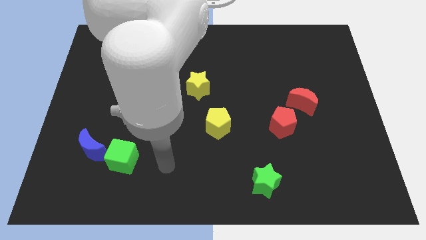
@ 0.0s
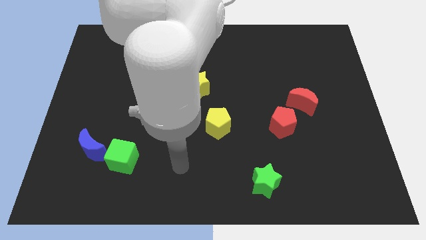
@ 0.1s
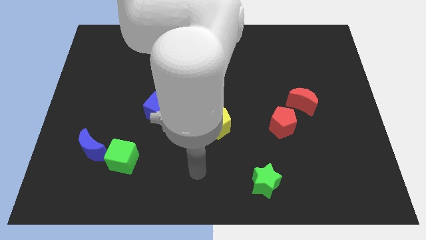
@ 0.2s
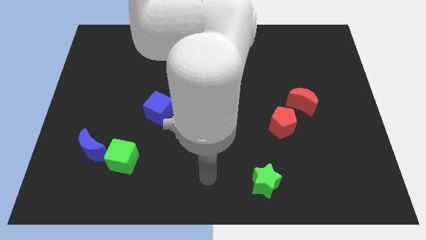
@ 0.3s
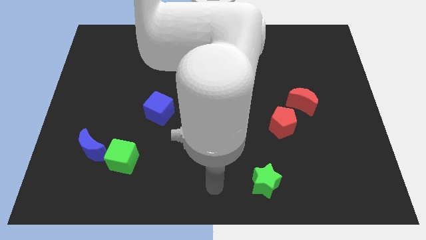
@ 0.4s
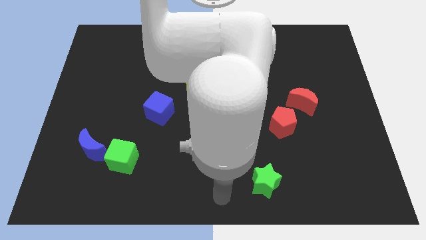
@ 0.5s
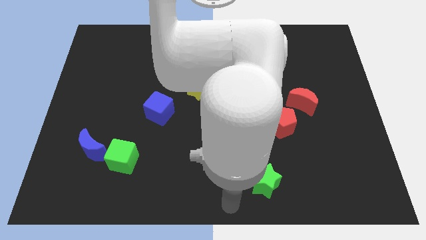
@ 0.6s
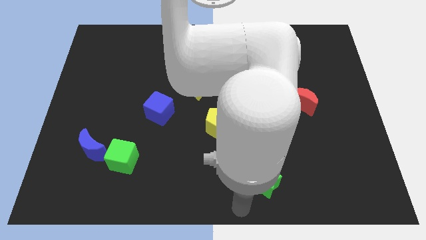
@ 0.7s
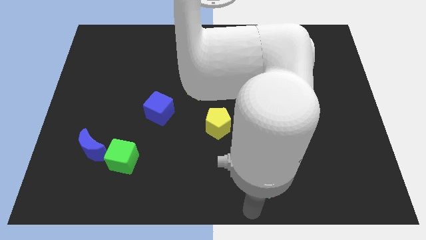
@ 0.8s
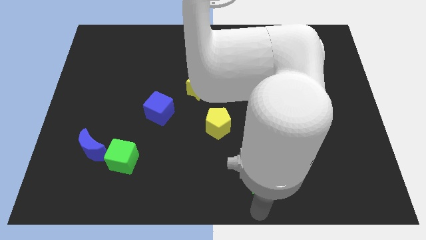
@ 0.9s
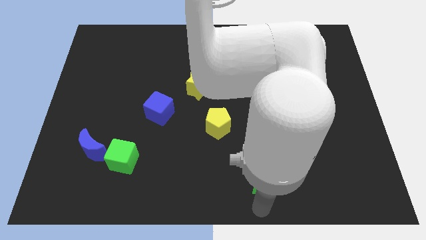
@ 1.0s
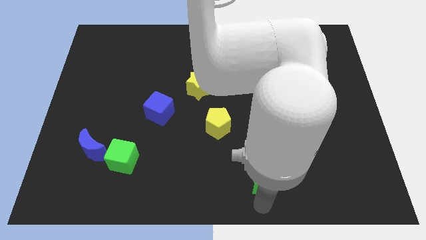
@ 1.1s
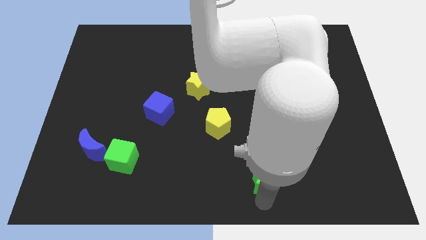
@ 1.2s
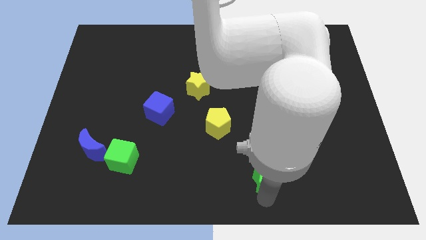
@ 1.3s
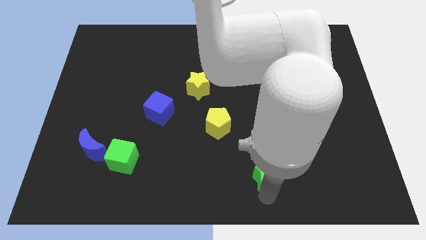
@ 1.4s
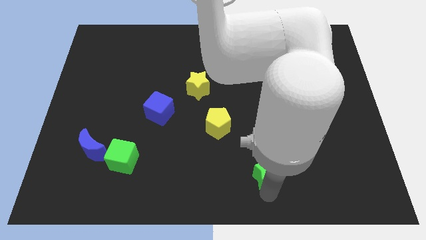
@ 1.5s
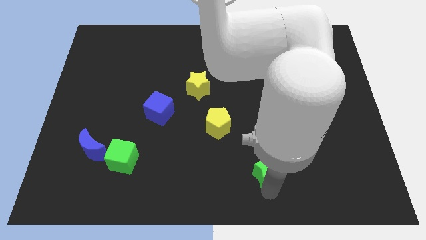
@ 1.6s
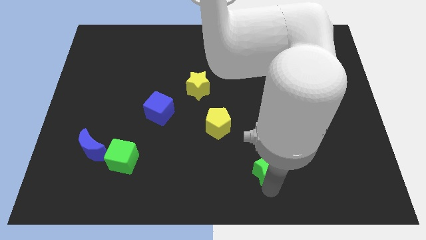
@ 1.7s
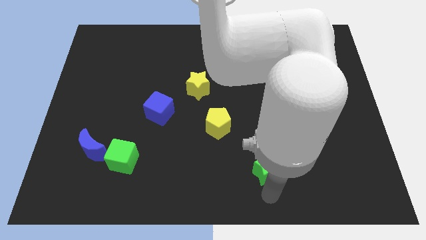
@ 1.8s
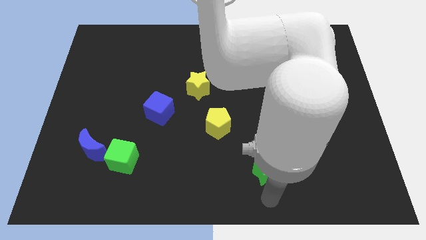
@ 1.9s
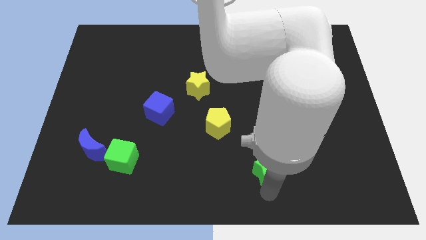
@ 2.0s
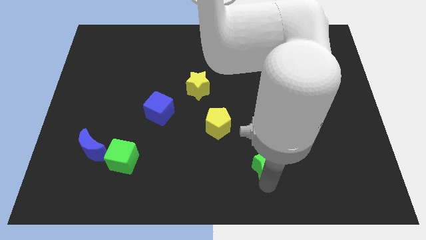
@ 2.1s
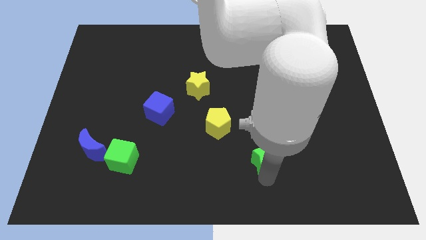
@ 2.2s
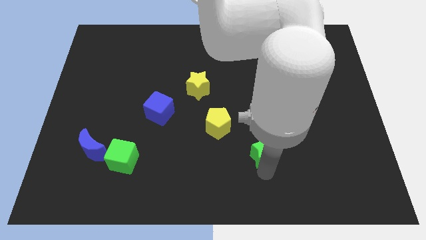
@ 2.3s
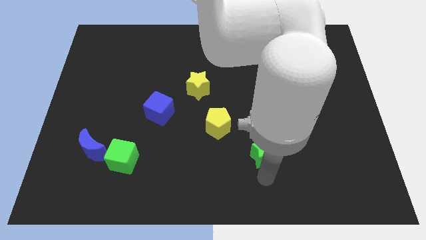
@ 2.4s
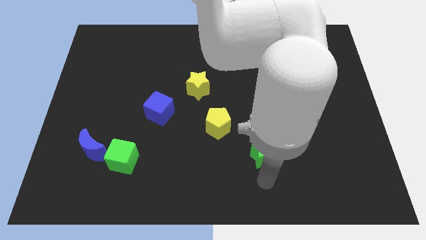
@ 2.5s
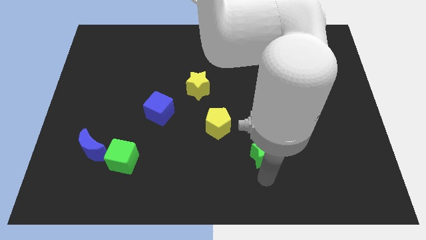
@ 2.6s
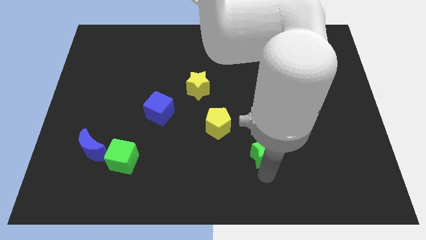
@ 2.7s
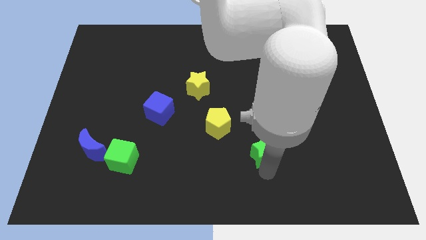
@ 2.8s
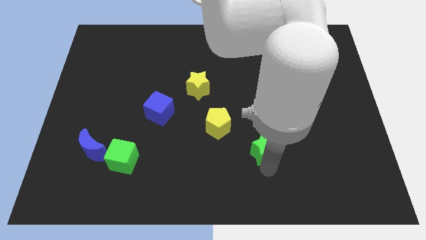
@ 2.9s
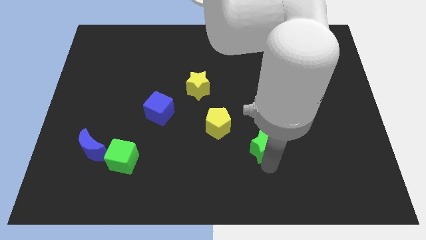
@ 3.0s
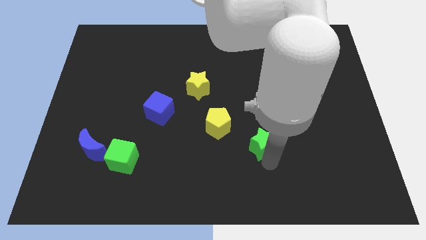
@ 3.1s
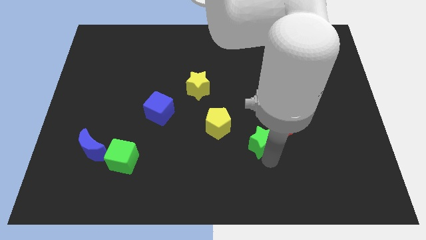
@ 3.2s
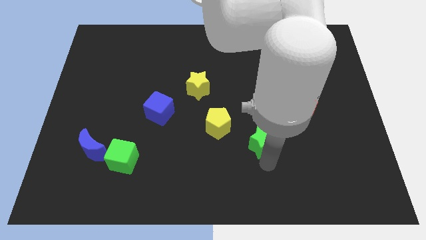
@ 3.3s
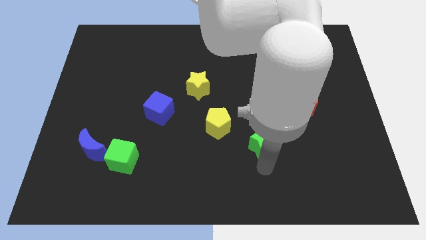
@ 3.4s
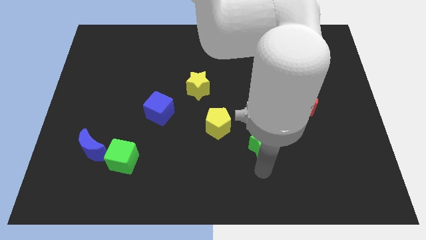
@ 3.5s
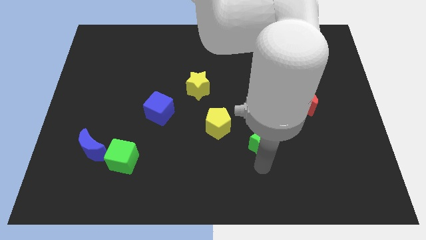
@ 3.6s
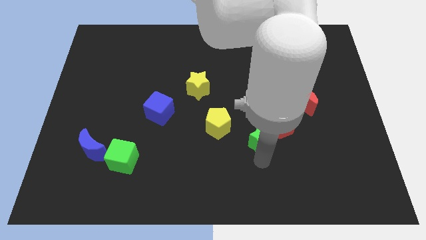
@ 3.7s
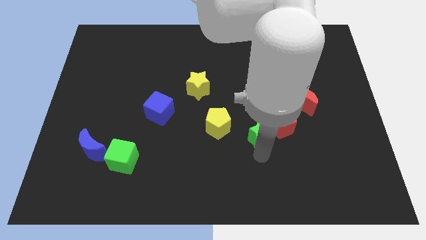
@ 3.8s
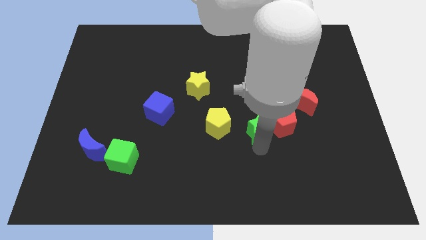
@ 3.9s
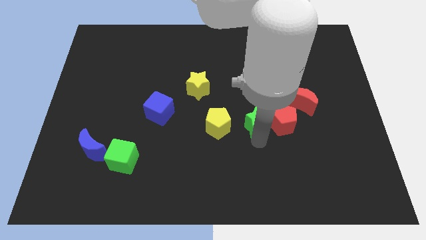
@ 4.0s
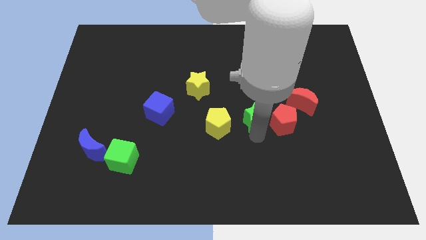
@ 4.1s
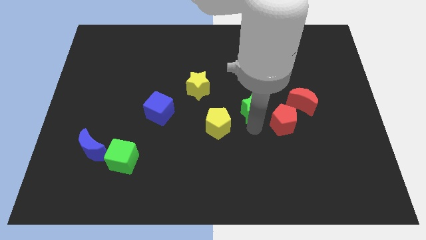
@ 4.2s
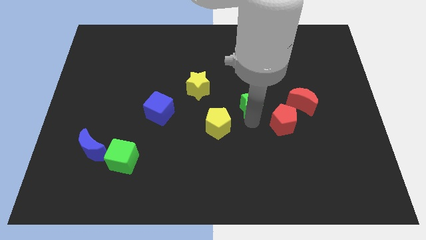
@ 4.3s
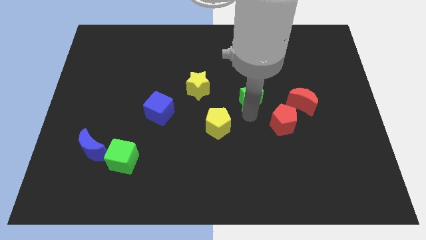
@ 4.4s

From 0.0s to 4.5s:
push the green star upwards

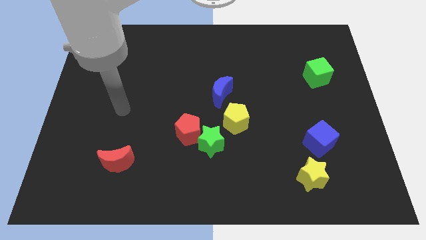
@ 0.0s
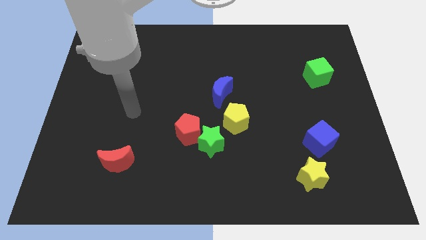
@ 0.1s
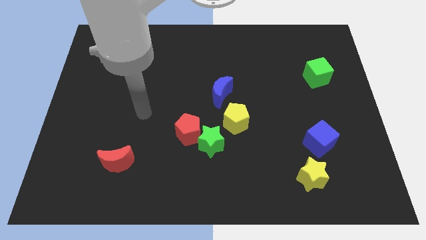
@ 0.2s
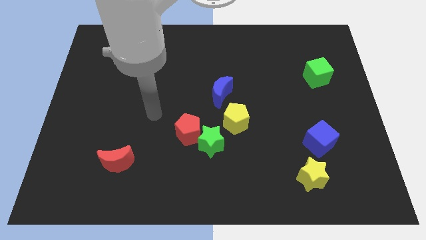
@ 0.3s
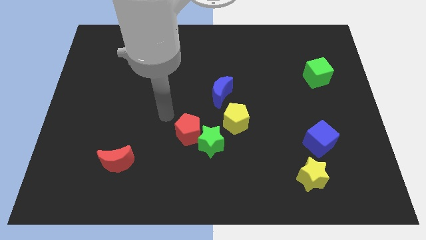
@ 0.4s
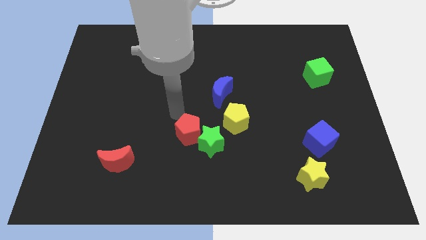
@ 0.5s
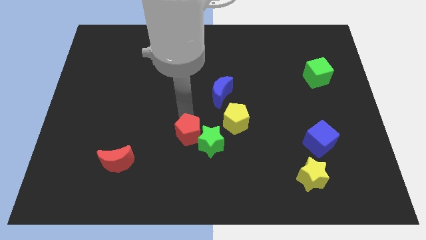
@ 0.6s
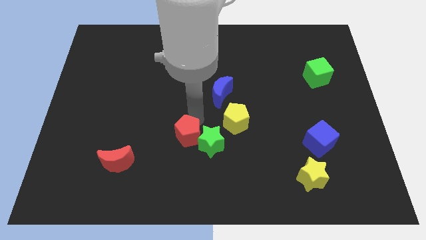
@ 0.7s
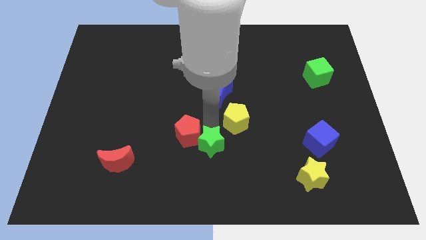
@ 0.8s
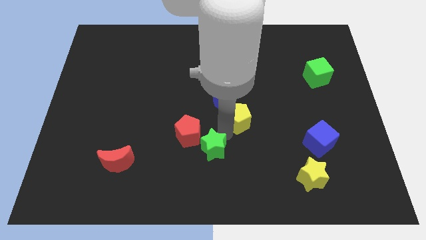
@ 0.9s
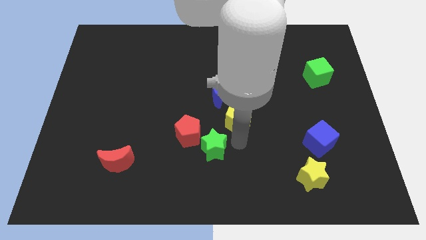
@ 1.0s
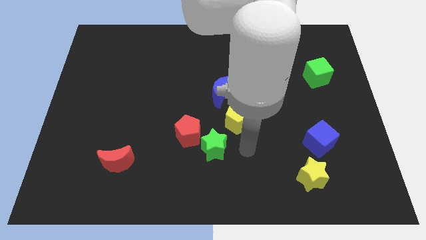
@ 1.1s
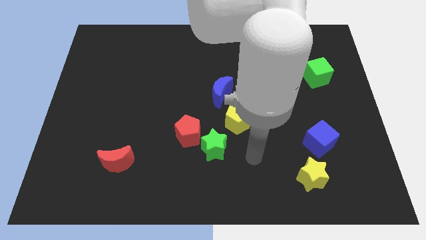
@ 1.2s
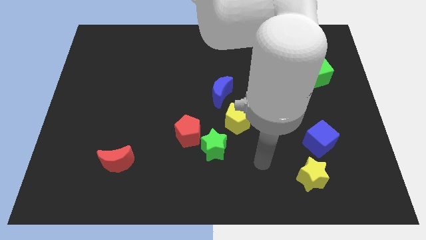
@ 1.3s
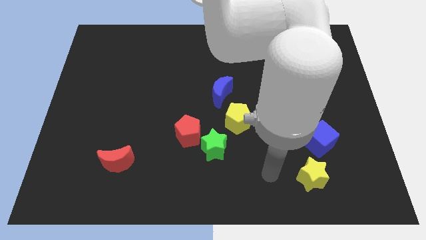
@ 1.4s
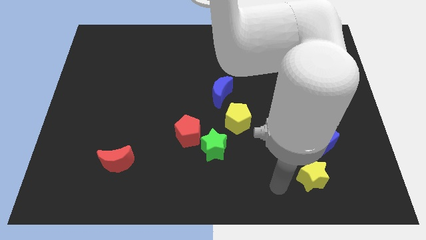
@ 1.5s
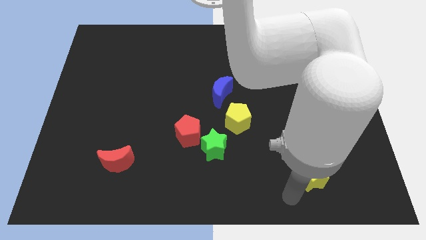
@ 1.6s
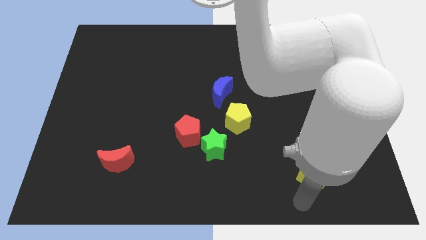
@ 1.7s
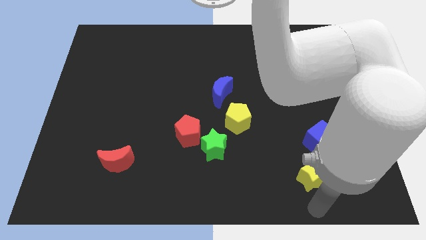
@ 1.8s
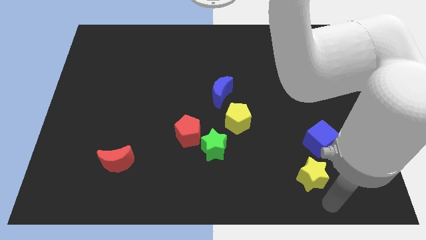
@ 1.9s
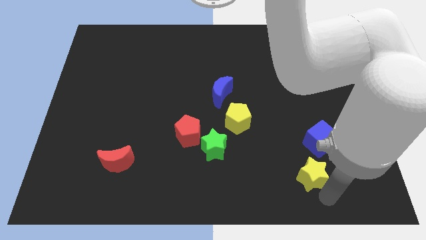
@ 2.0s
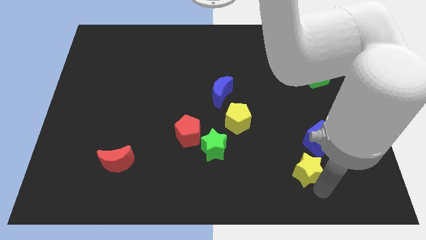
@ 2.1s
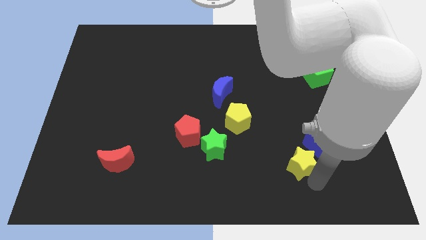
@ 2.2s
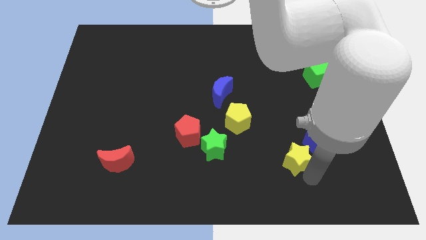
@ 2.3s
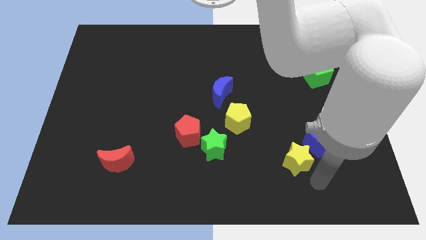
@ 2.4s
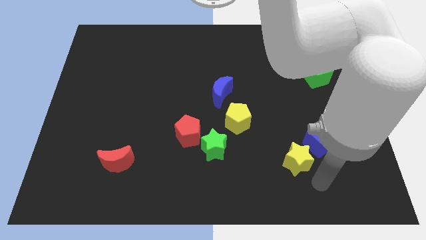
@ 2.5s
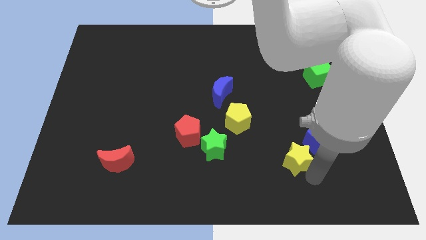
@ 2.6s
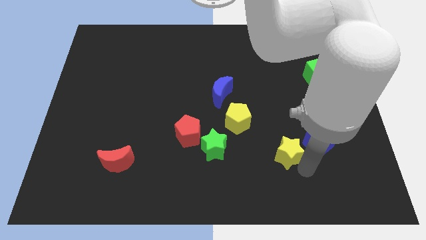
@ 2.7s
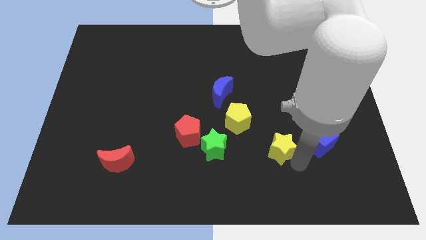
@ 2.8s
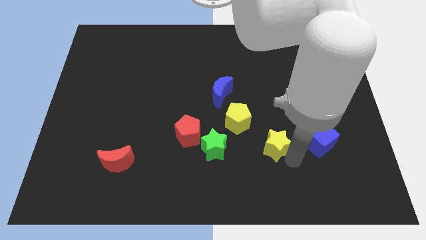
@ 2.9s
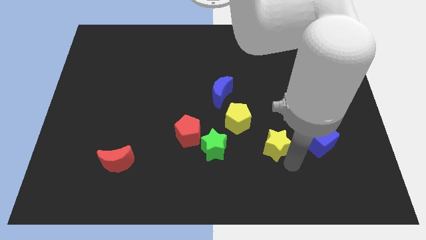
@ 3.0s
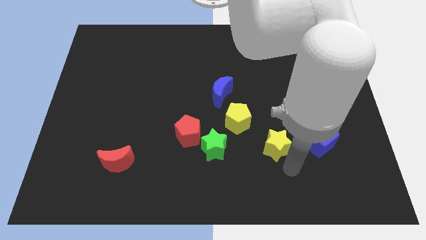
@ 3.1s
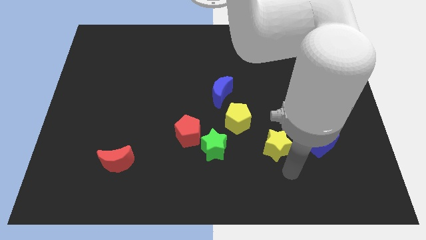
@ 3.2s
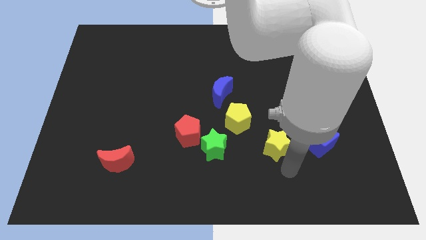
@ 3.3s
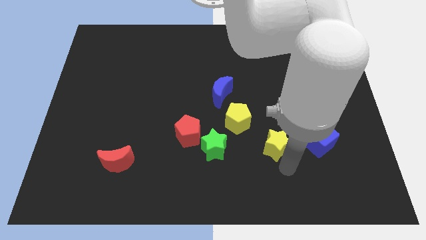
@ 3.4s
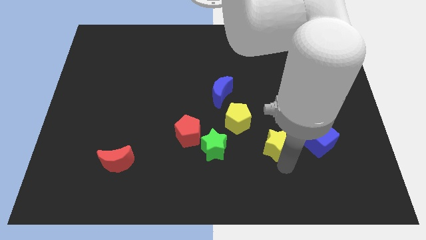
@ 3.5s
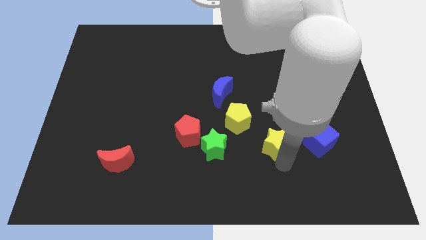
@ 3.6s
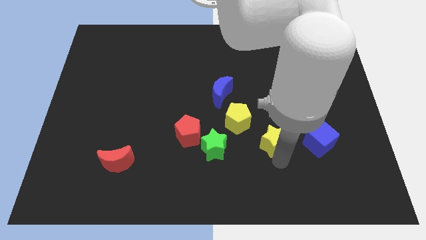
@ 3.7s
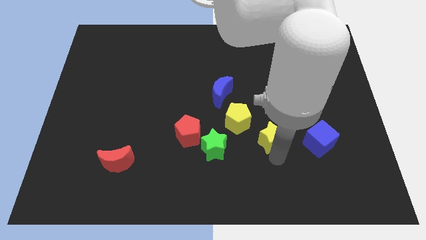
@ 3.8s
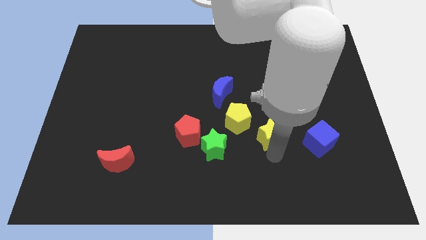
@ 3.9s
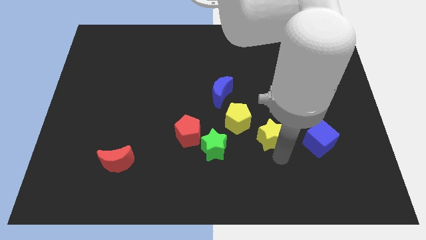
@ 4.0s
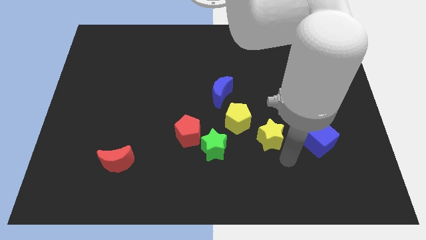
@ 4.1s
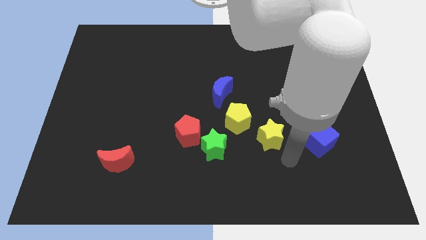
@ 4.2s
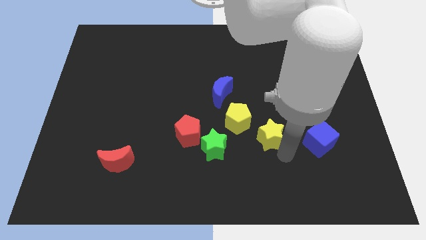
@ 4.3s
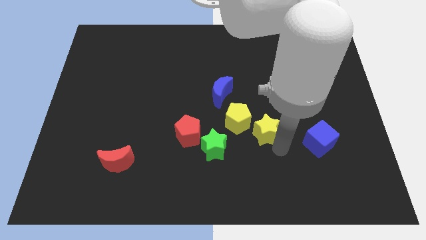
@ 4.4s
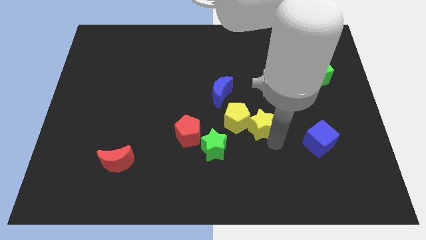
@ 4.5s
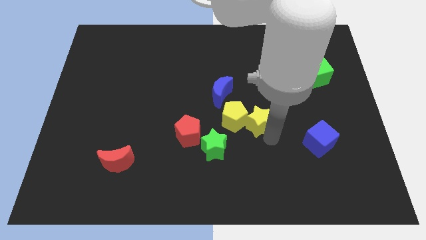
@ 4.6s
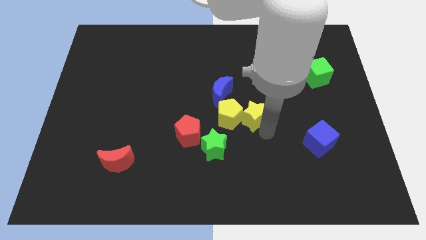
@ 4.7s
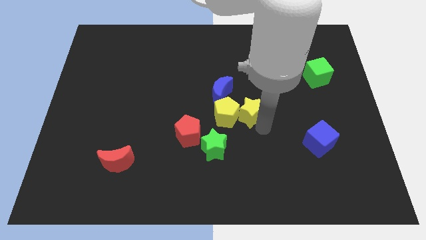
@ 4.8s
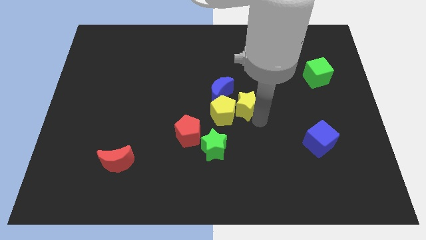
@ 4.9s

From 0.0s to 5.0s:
move the yellow star diagonally up and left
